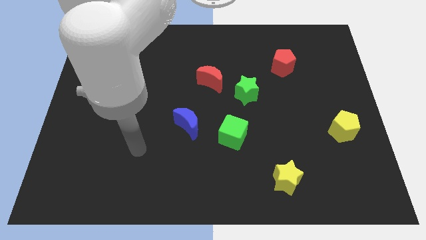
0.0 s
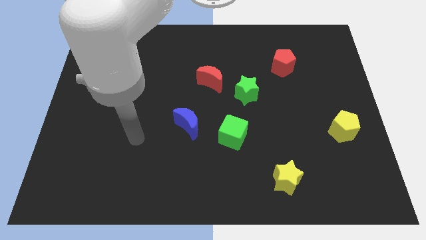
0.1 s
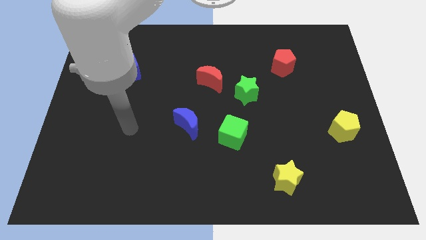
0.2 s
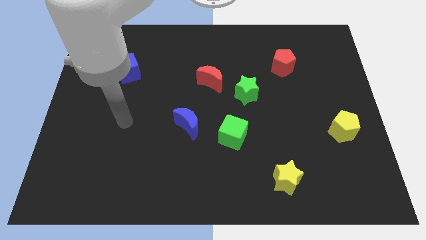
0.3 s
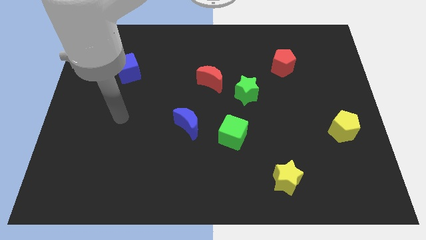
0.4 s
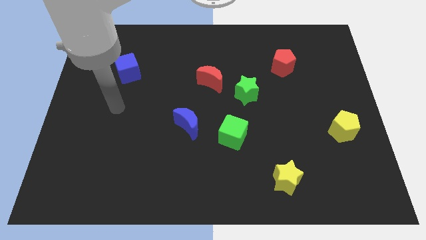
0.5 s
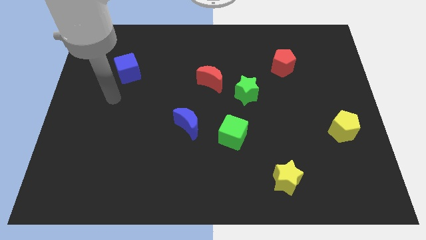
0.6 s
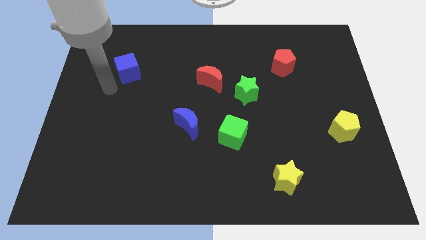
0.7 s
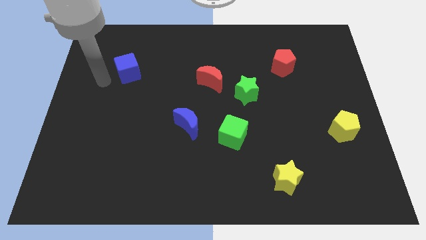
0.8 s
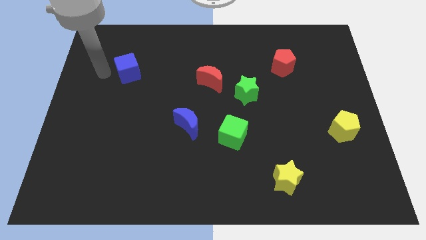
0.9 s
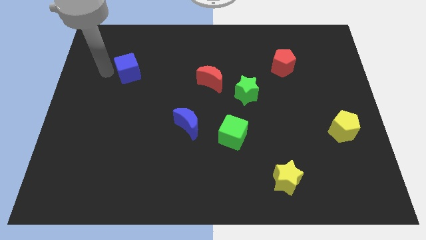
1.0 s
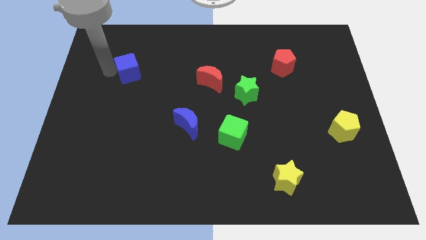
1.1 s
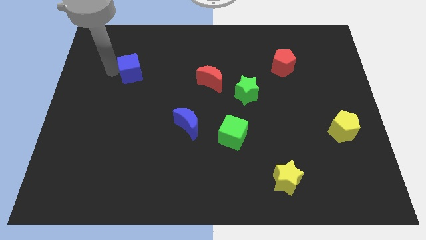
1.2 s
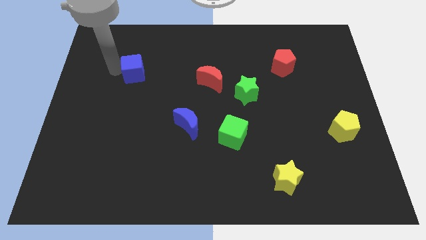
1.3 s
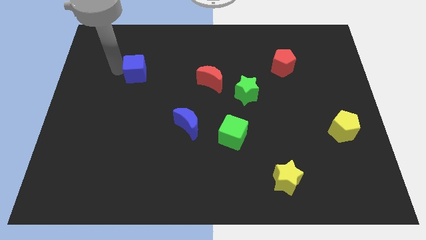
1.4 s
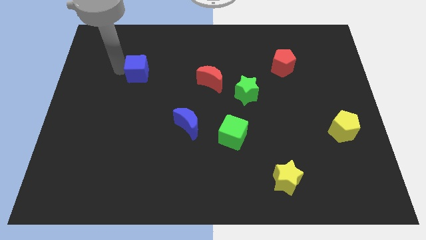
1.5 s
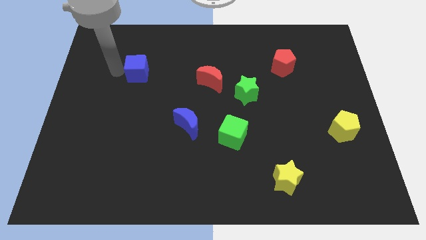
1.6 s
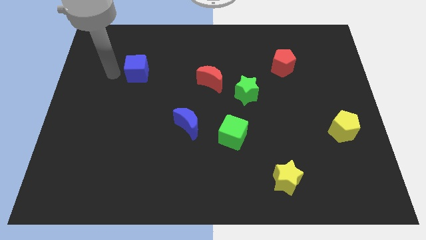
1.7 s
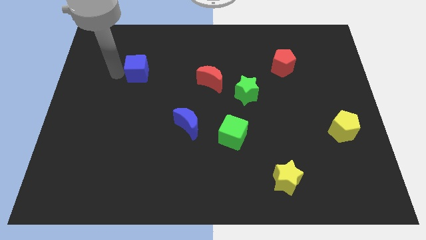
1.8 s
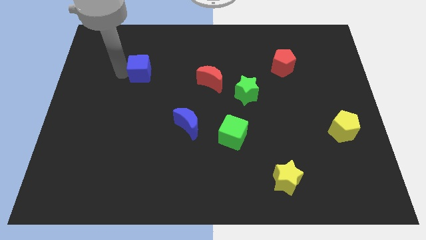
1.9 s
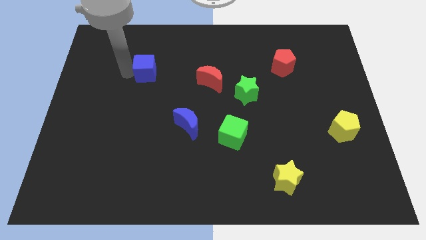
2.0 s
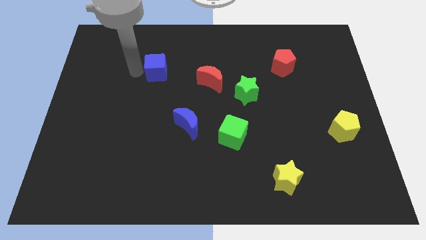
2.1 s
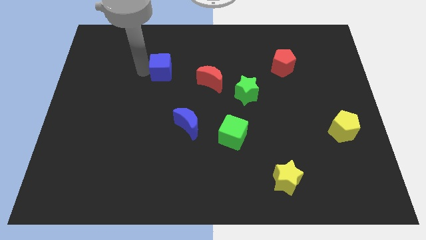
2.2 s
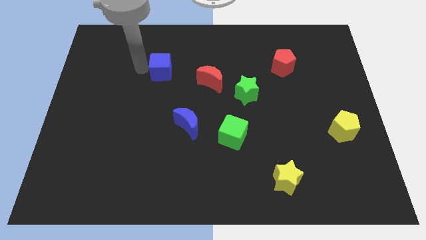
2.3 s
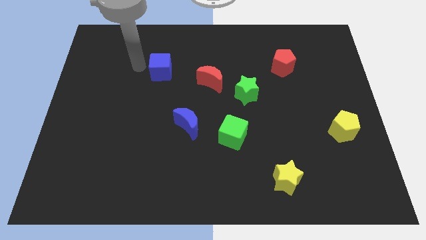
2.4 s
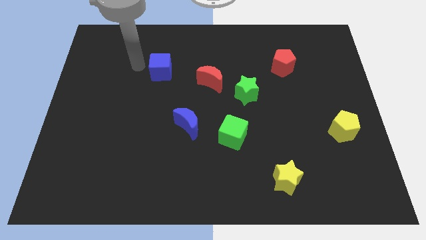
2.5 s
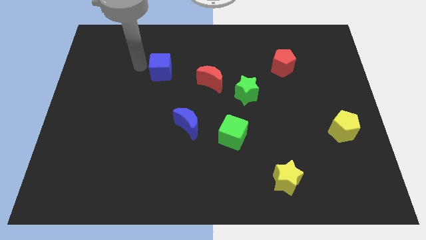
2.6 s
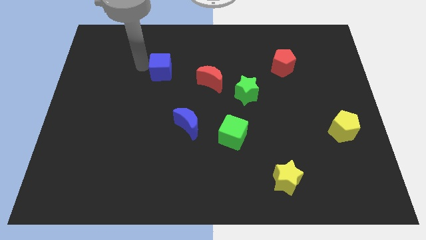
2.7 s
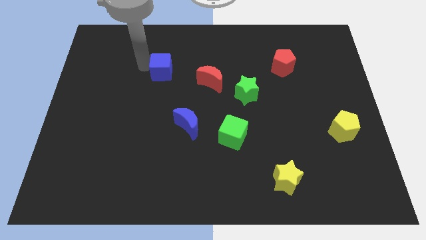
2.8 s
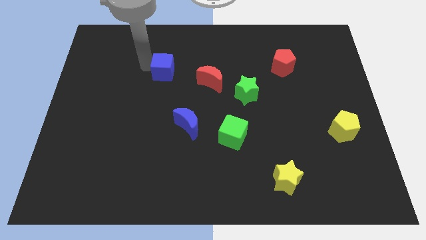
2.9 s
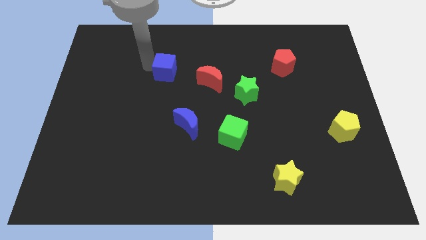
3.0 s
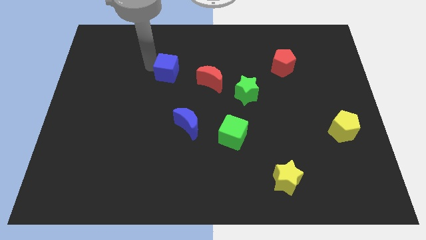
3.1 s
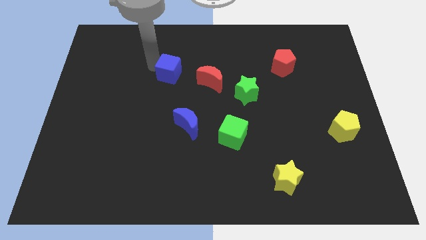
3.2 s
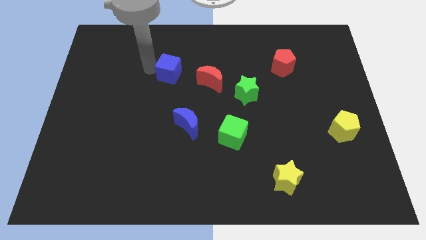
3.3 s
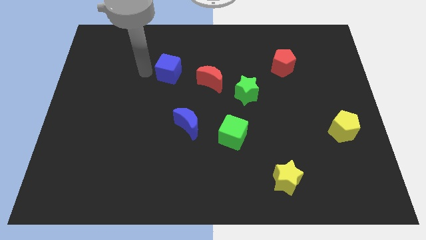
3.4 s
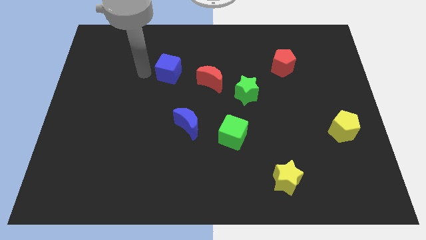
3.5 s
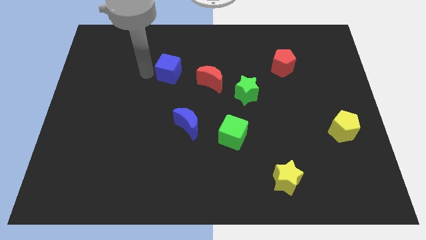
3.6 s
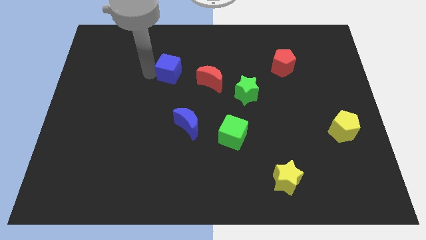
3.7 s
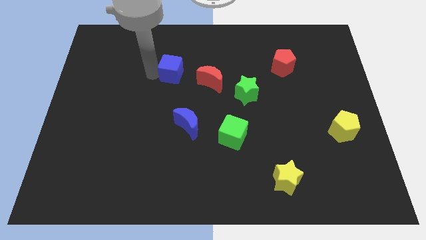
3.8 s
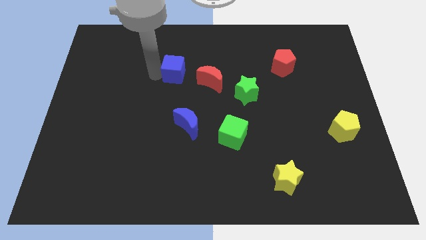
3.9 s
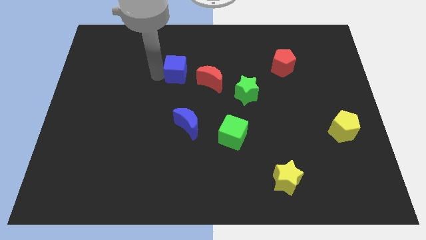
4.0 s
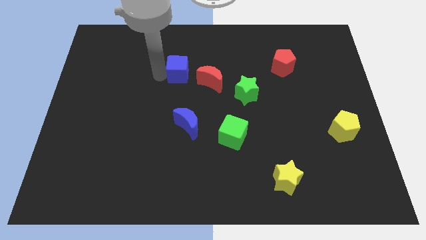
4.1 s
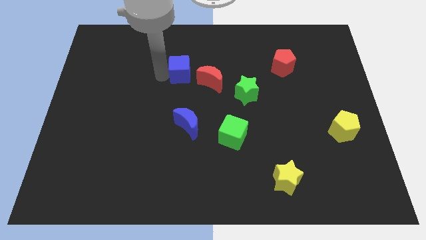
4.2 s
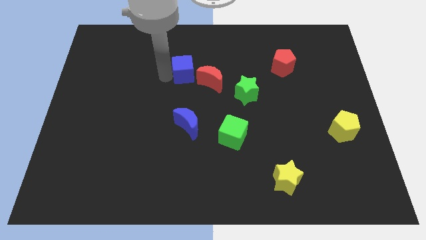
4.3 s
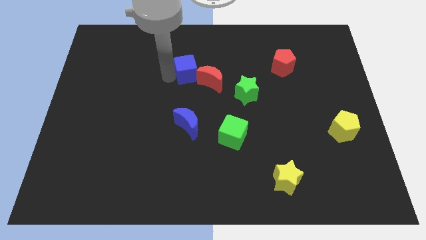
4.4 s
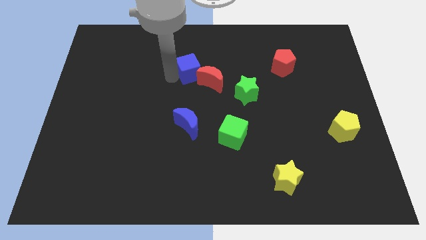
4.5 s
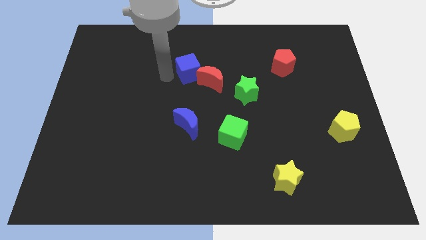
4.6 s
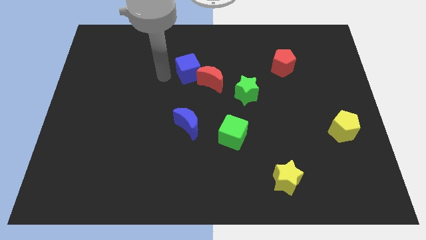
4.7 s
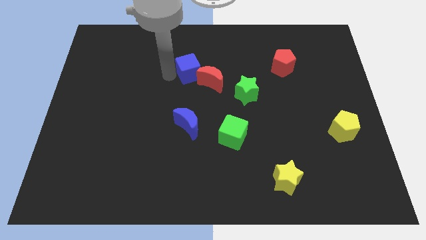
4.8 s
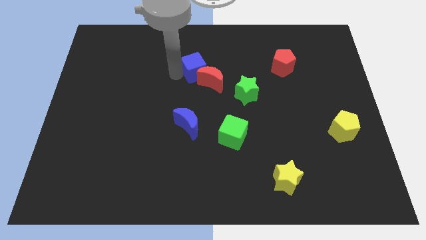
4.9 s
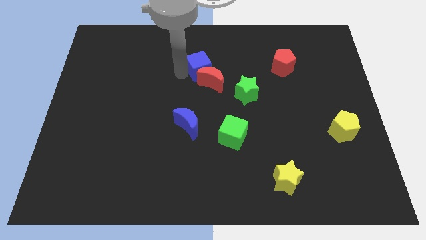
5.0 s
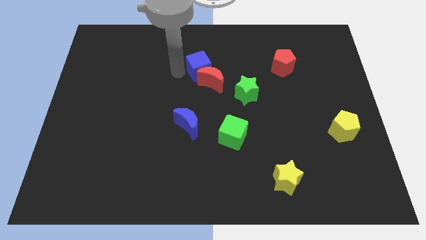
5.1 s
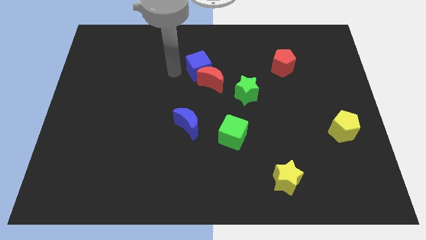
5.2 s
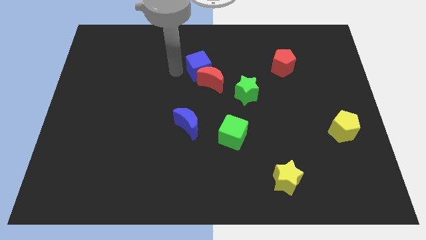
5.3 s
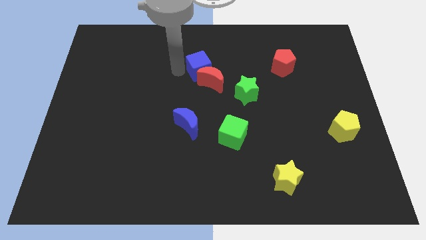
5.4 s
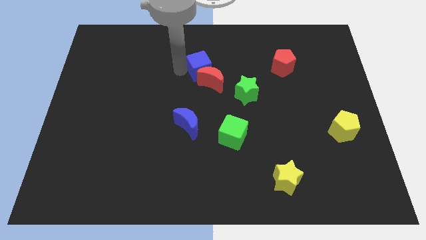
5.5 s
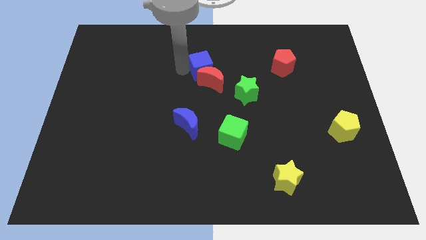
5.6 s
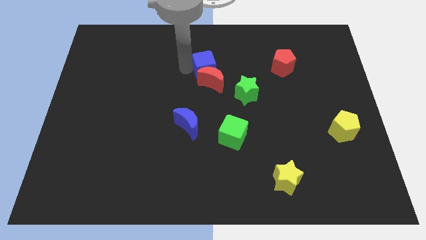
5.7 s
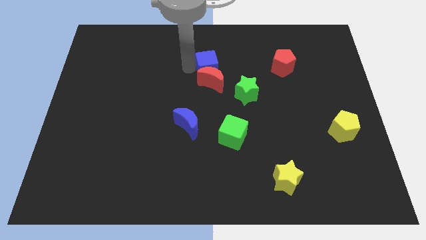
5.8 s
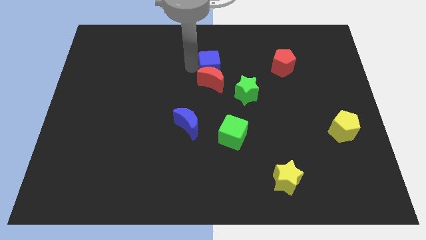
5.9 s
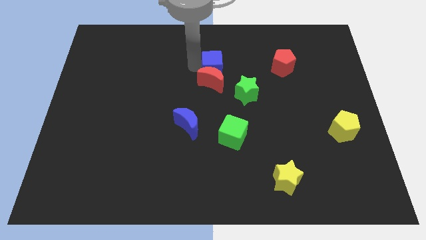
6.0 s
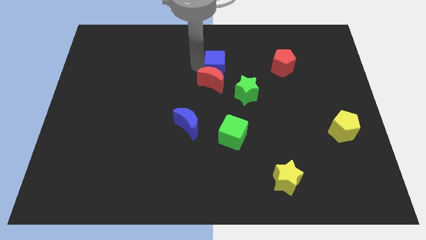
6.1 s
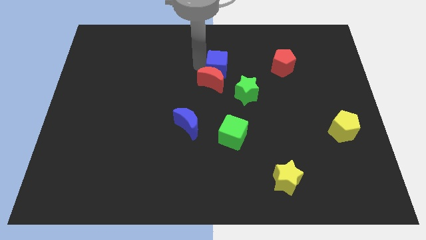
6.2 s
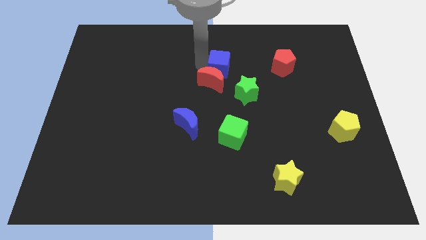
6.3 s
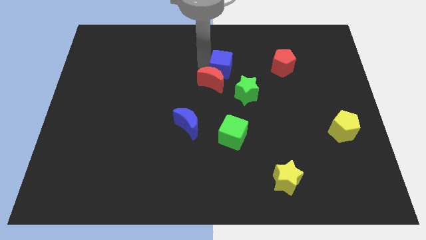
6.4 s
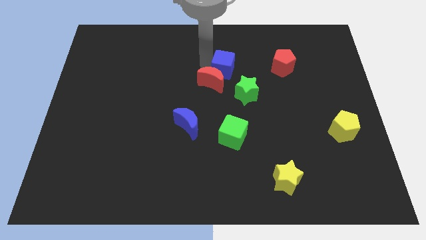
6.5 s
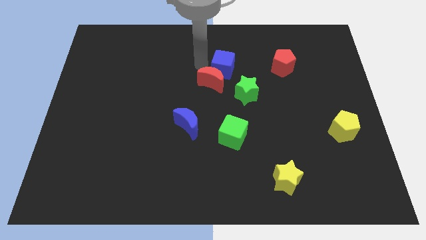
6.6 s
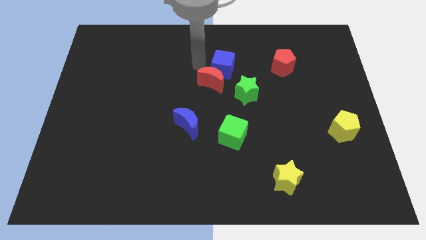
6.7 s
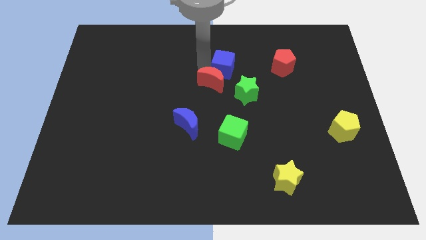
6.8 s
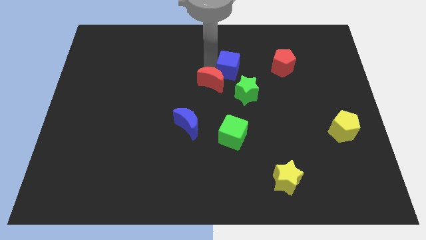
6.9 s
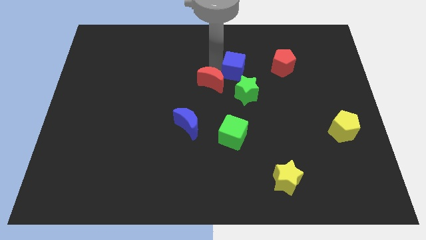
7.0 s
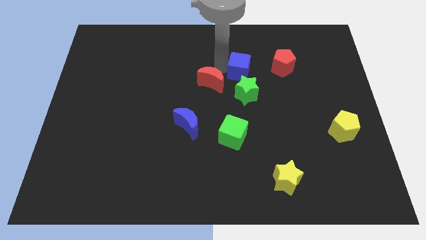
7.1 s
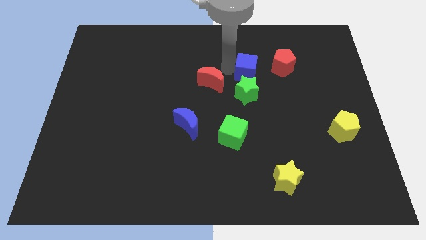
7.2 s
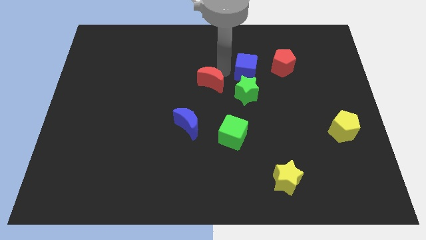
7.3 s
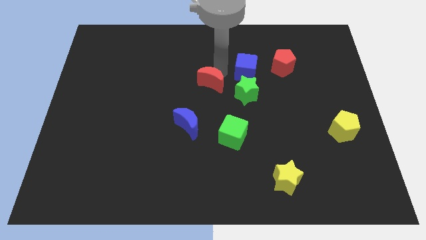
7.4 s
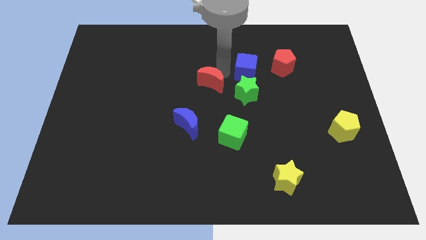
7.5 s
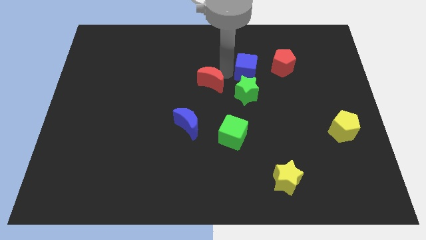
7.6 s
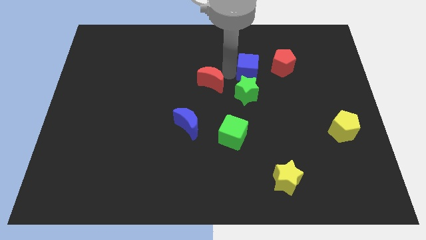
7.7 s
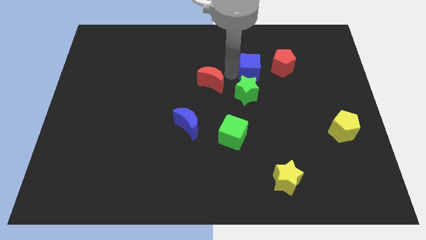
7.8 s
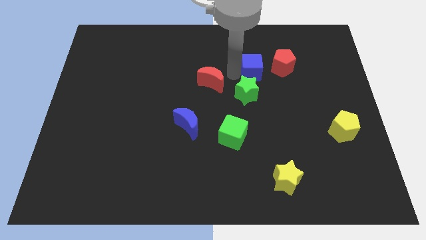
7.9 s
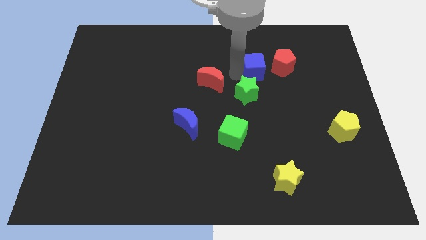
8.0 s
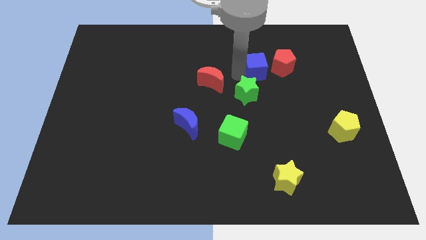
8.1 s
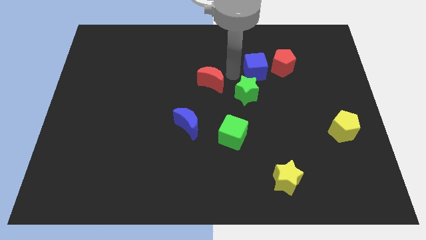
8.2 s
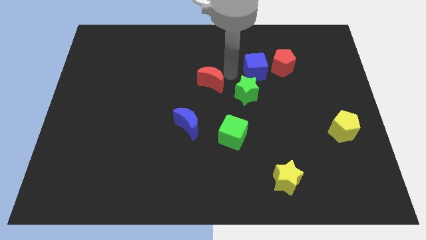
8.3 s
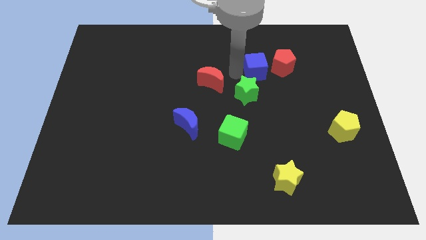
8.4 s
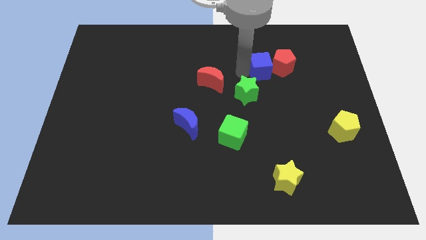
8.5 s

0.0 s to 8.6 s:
put the blue cube next to the red pentagon
